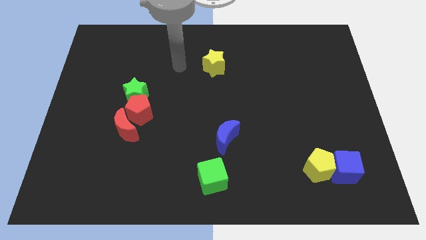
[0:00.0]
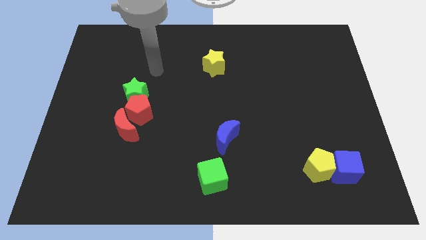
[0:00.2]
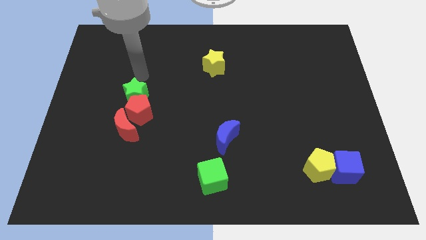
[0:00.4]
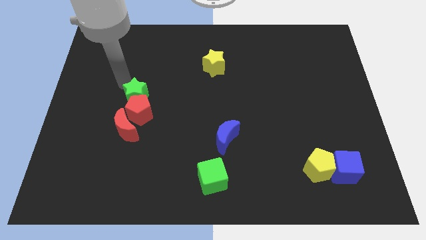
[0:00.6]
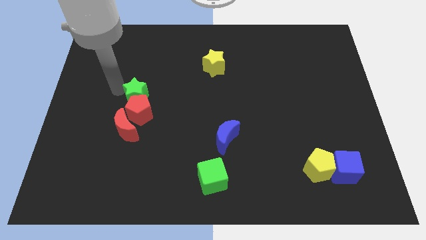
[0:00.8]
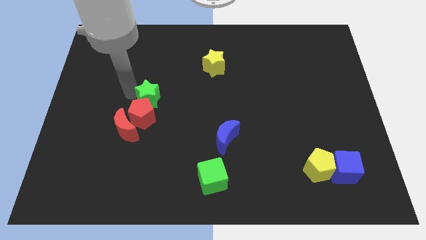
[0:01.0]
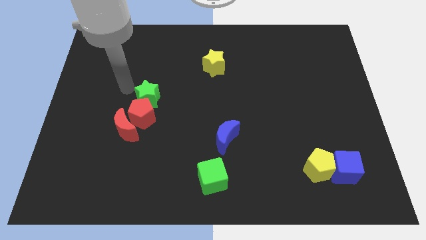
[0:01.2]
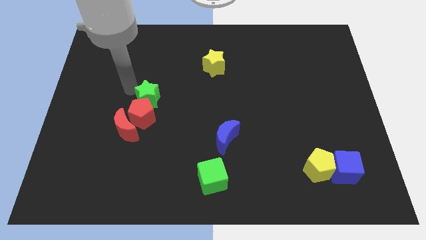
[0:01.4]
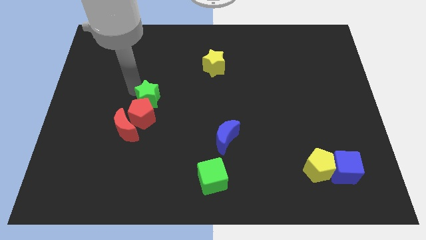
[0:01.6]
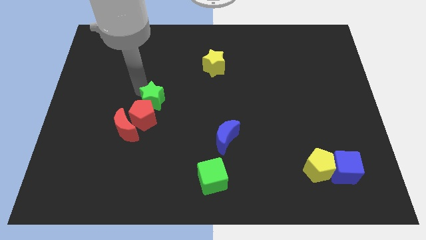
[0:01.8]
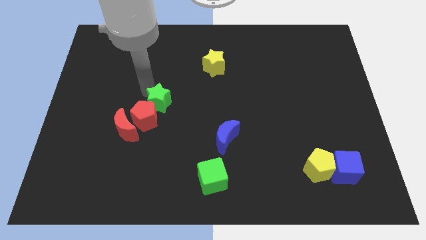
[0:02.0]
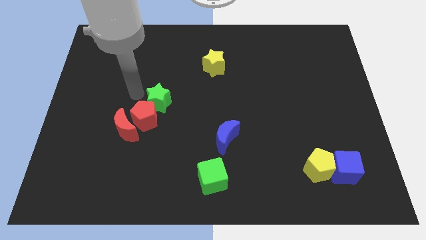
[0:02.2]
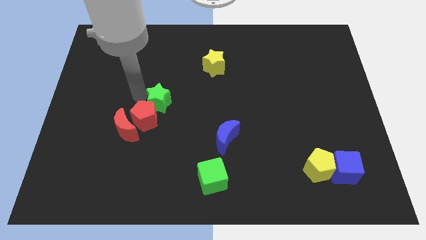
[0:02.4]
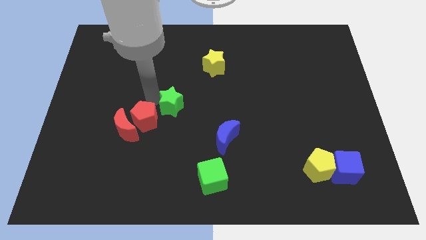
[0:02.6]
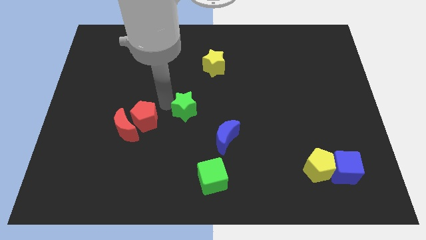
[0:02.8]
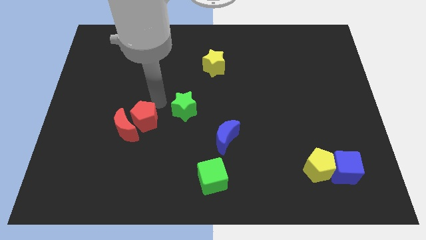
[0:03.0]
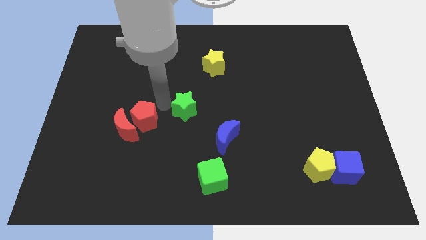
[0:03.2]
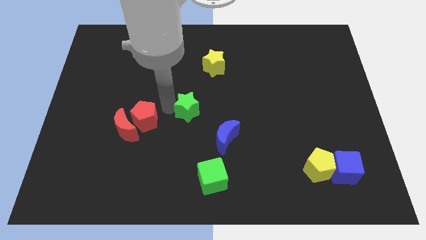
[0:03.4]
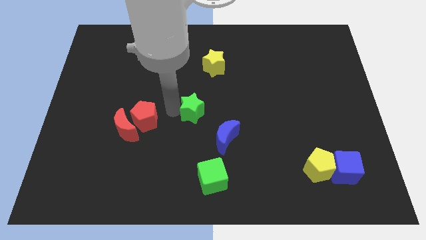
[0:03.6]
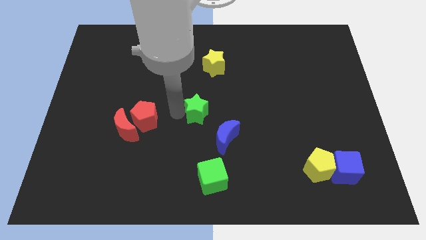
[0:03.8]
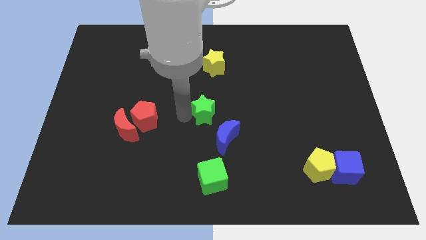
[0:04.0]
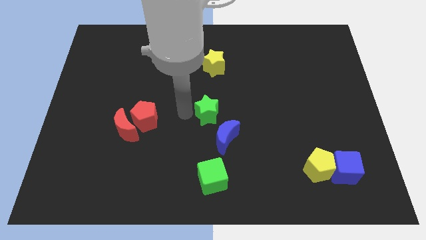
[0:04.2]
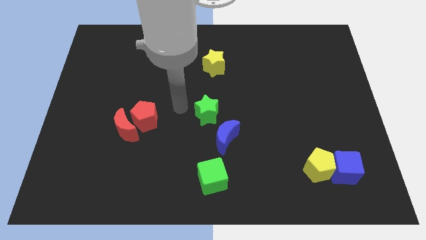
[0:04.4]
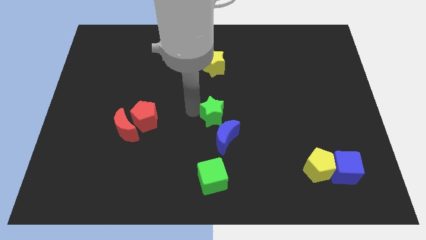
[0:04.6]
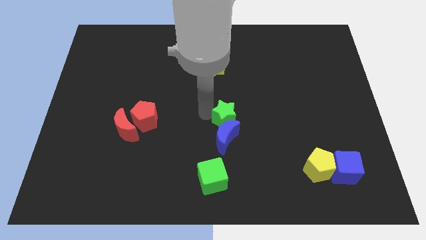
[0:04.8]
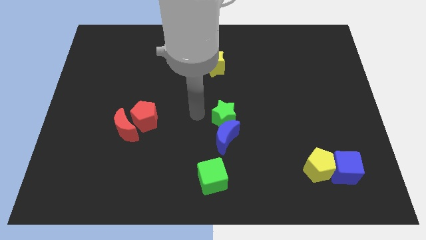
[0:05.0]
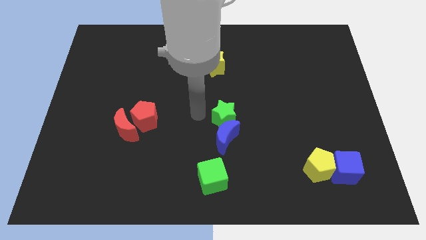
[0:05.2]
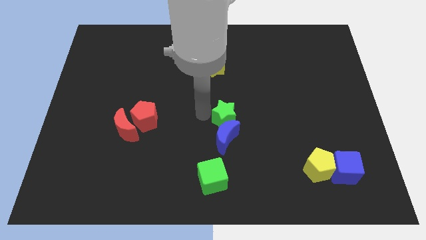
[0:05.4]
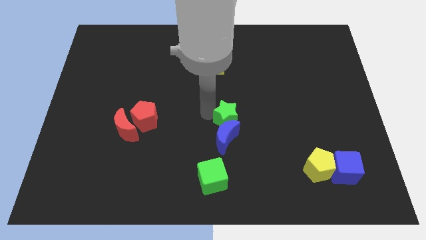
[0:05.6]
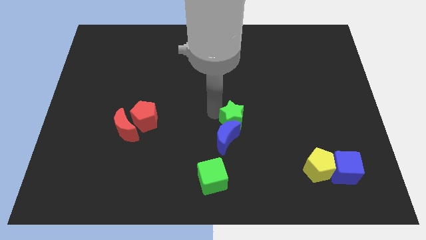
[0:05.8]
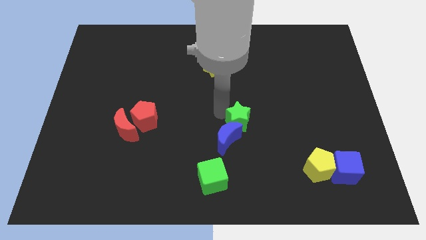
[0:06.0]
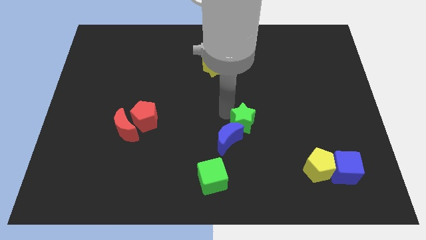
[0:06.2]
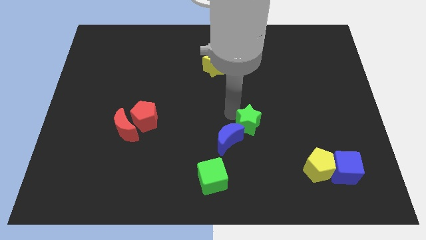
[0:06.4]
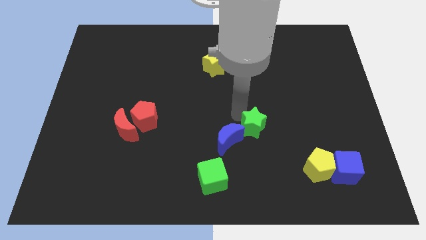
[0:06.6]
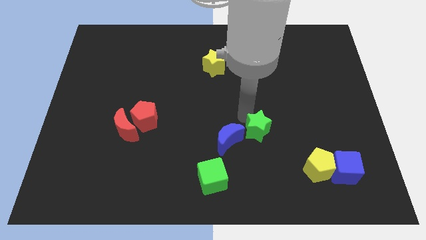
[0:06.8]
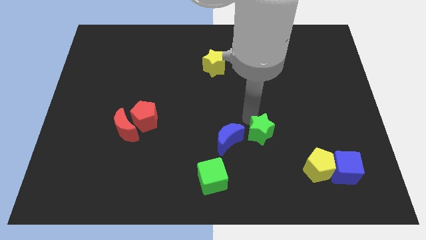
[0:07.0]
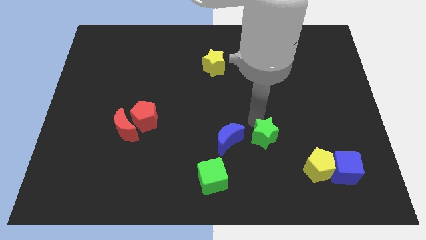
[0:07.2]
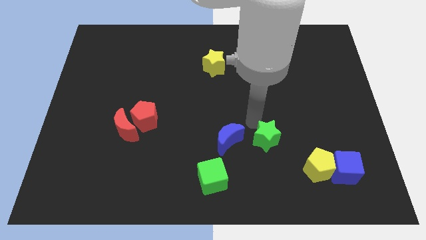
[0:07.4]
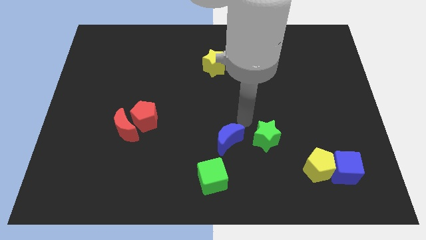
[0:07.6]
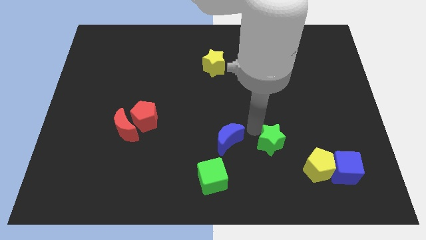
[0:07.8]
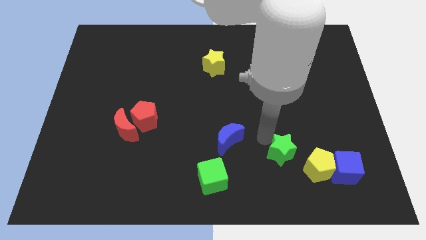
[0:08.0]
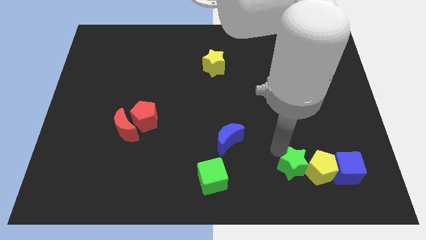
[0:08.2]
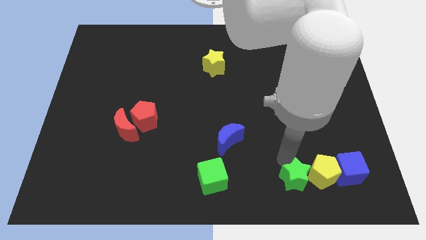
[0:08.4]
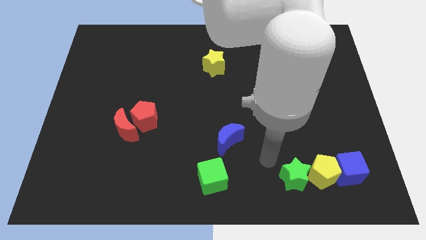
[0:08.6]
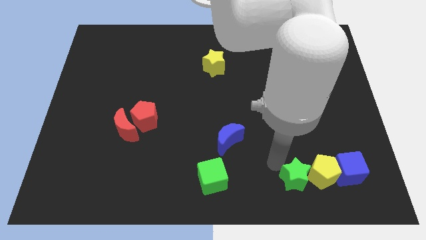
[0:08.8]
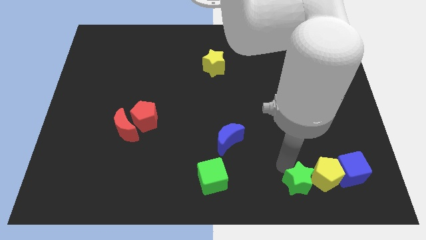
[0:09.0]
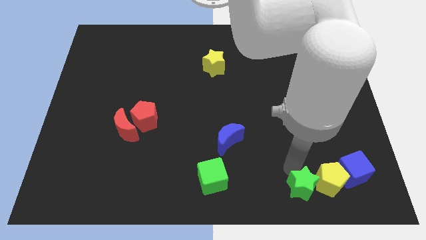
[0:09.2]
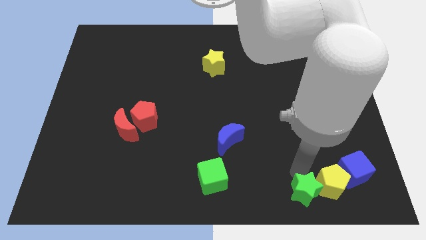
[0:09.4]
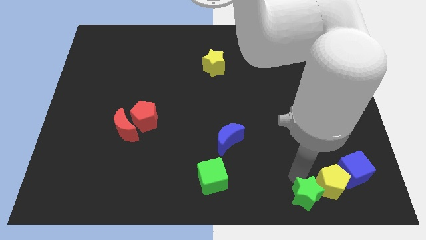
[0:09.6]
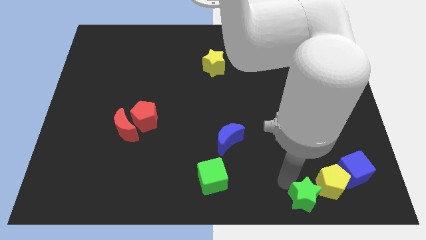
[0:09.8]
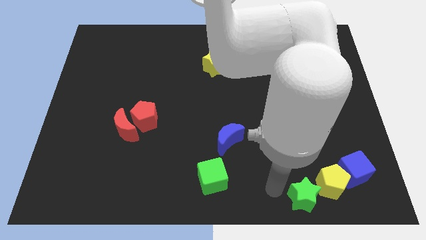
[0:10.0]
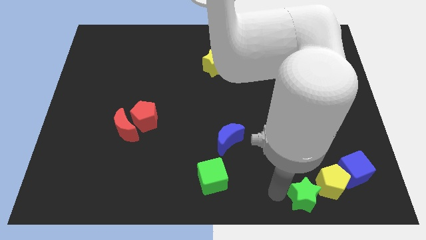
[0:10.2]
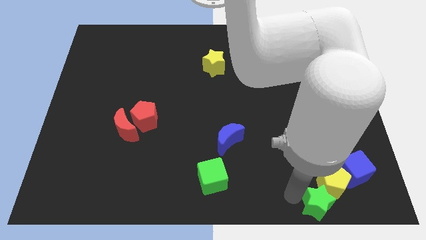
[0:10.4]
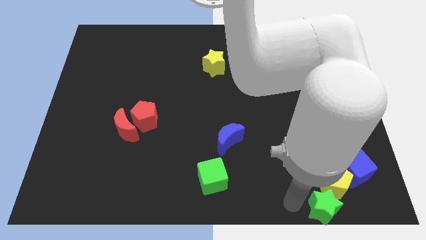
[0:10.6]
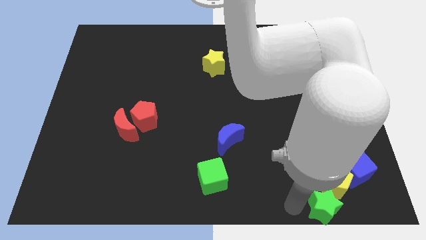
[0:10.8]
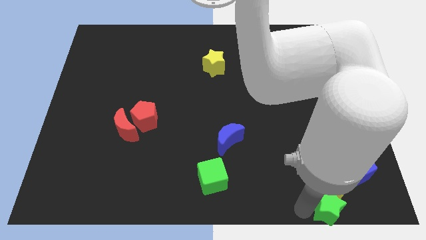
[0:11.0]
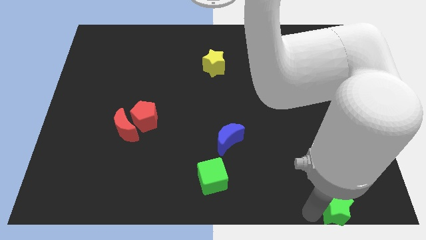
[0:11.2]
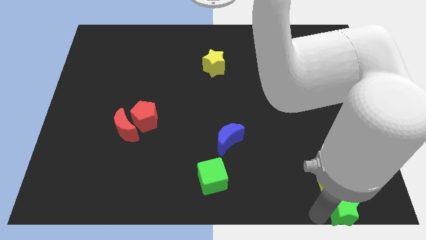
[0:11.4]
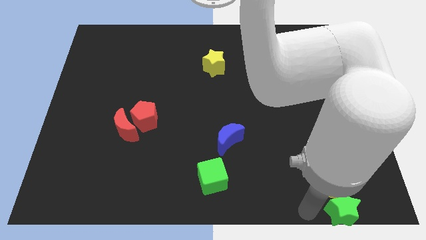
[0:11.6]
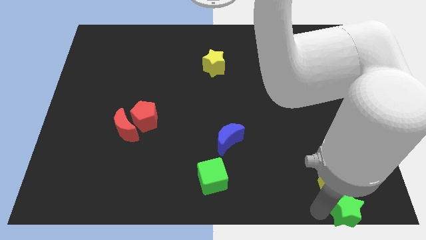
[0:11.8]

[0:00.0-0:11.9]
slide the green star to the lower right corner
